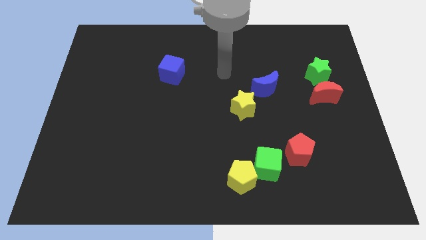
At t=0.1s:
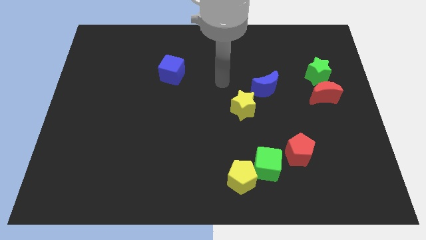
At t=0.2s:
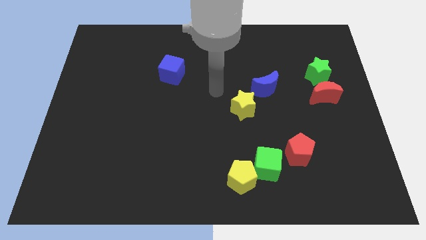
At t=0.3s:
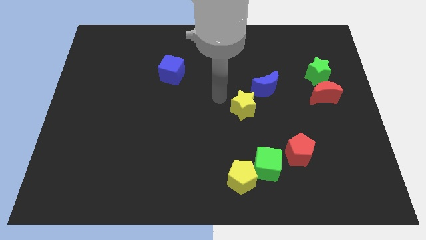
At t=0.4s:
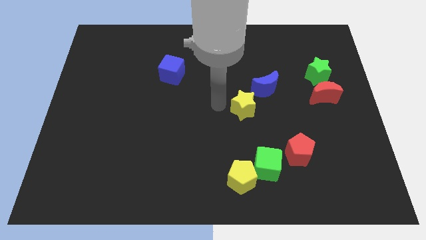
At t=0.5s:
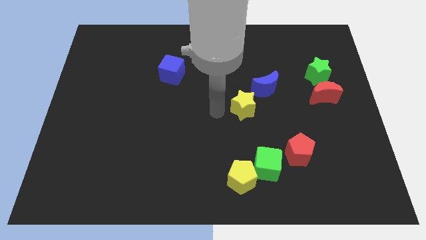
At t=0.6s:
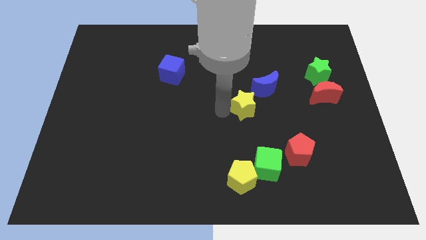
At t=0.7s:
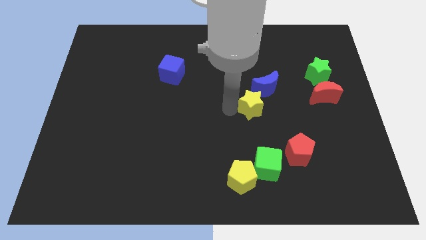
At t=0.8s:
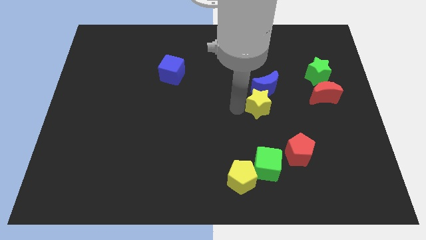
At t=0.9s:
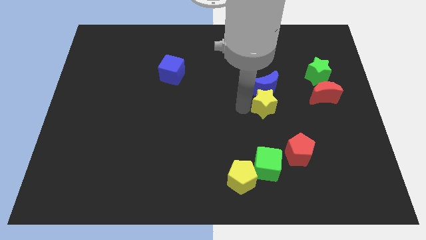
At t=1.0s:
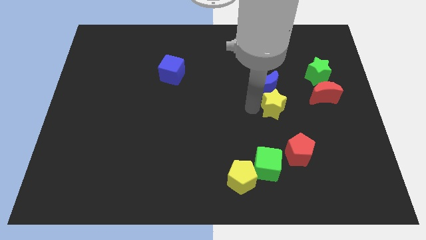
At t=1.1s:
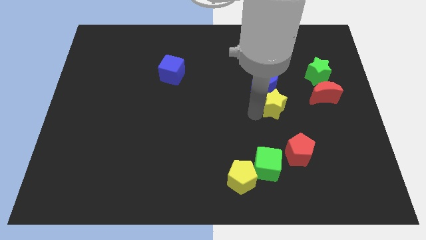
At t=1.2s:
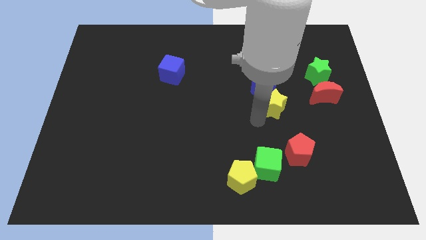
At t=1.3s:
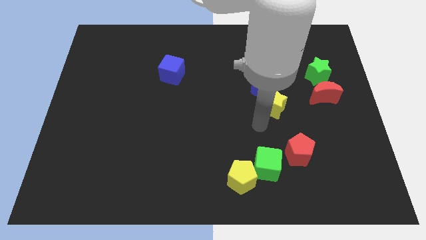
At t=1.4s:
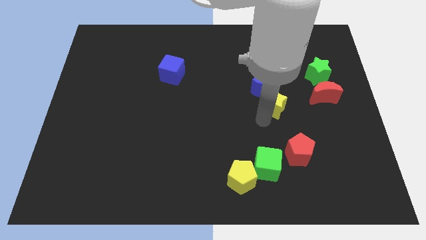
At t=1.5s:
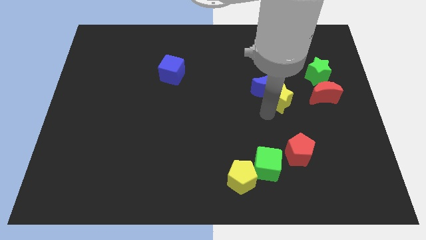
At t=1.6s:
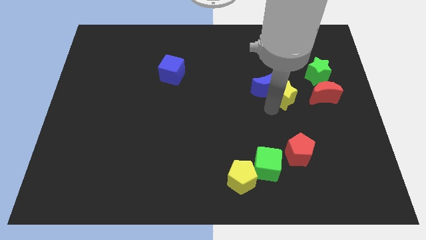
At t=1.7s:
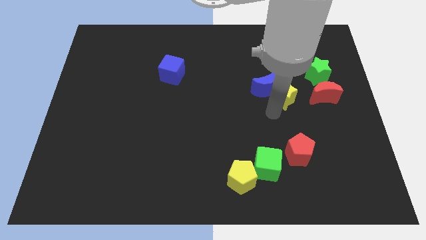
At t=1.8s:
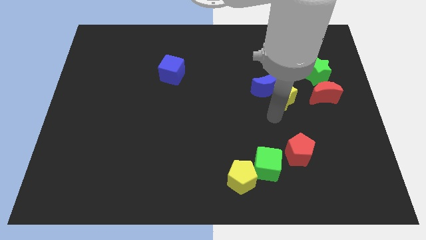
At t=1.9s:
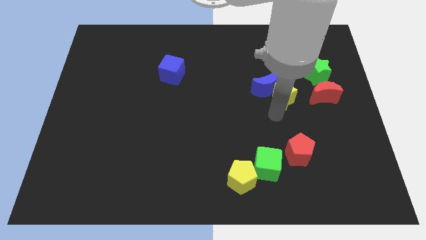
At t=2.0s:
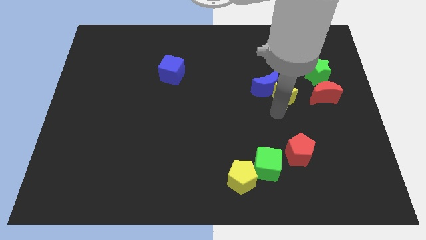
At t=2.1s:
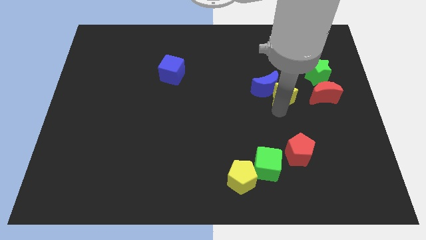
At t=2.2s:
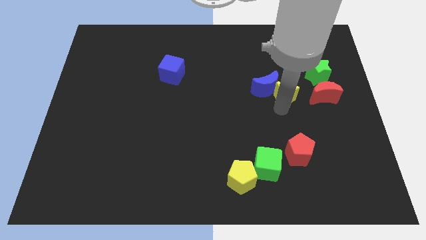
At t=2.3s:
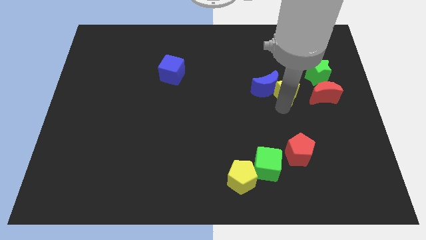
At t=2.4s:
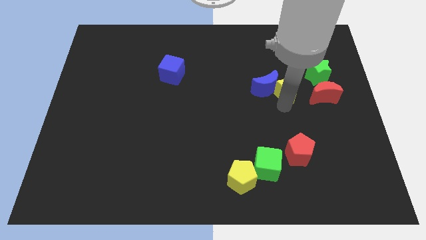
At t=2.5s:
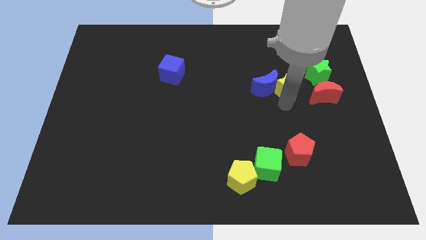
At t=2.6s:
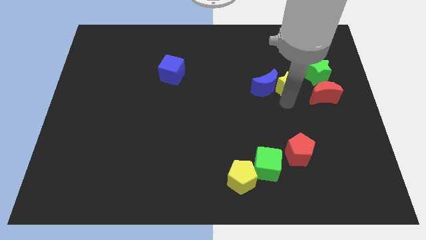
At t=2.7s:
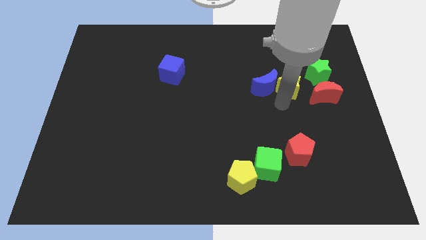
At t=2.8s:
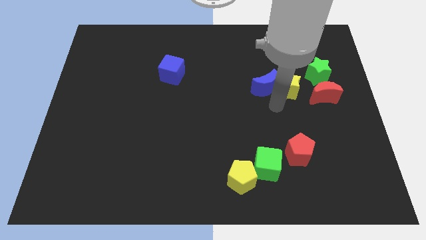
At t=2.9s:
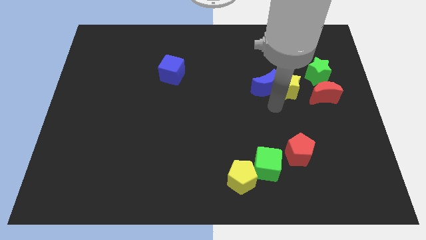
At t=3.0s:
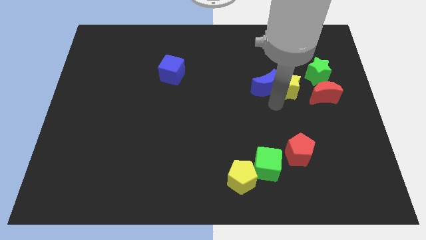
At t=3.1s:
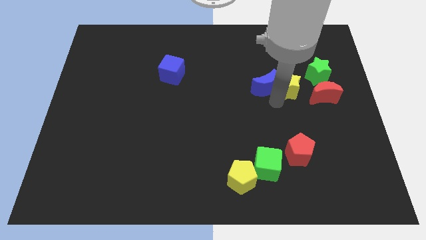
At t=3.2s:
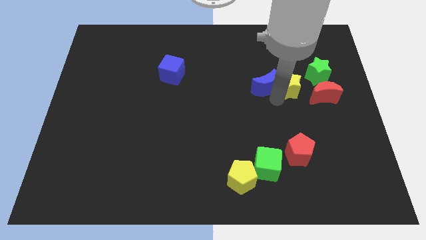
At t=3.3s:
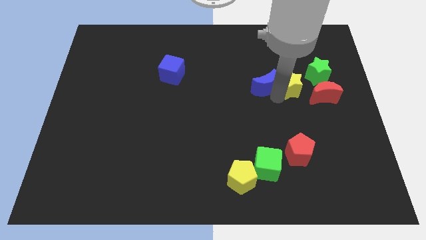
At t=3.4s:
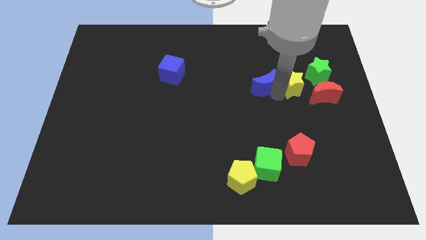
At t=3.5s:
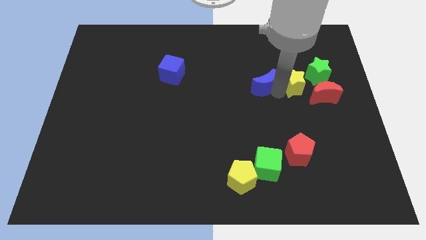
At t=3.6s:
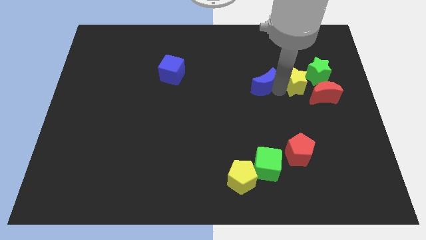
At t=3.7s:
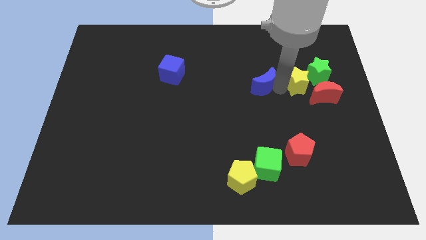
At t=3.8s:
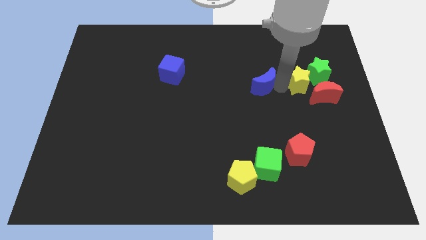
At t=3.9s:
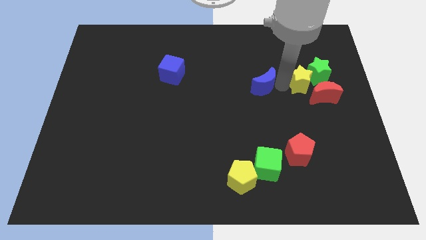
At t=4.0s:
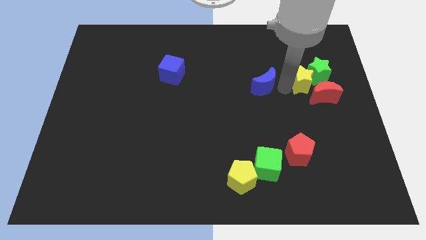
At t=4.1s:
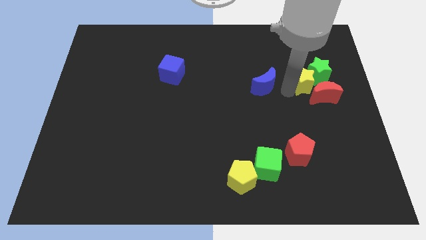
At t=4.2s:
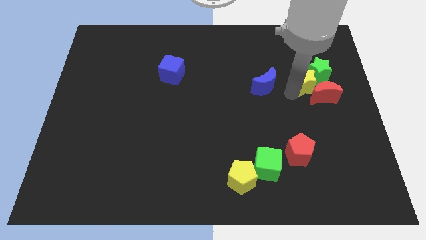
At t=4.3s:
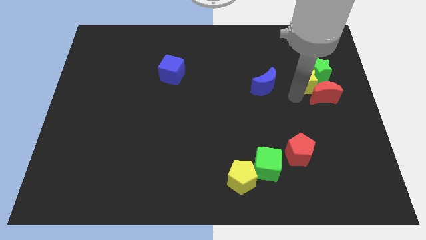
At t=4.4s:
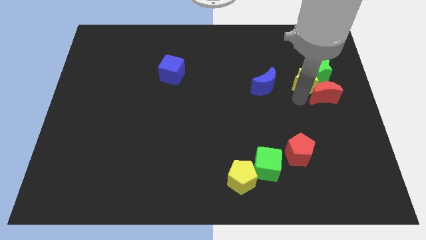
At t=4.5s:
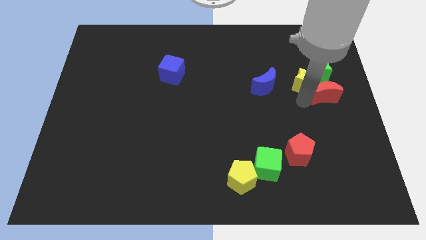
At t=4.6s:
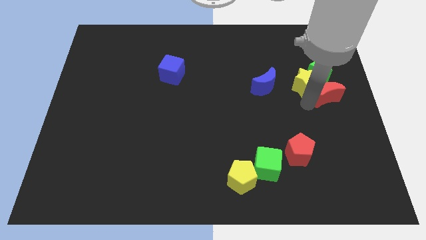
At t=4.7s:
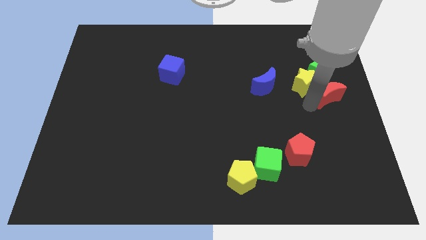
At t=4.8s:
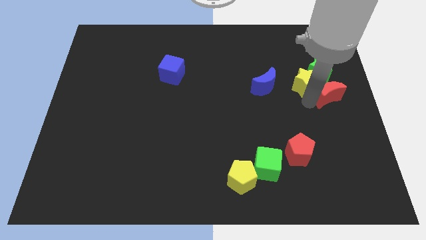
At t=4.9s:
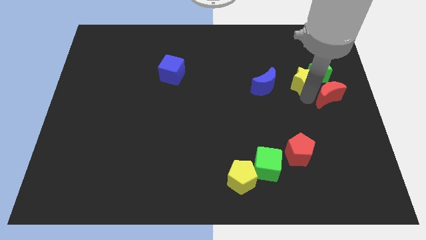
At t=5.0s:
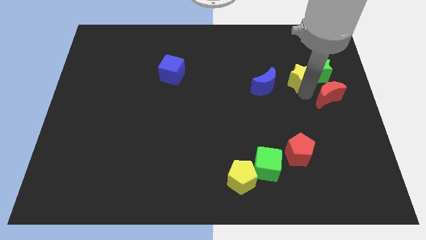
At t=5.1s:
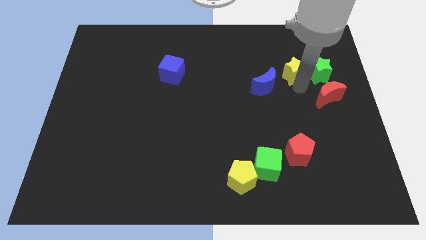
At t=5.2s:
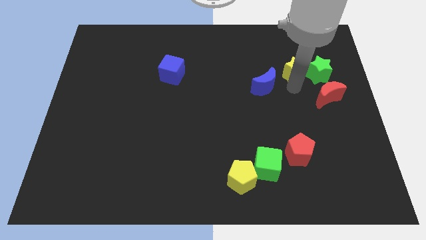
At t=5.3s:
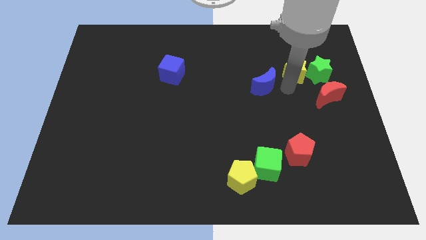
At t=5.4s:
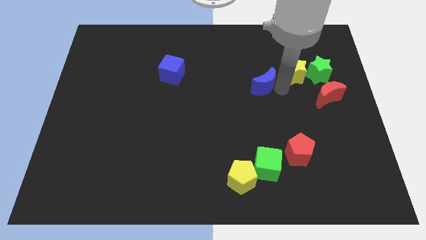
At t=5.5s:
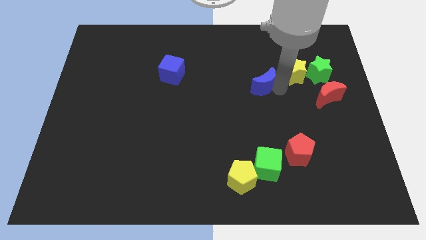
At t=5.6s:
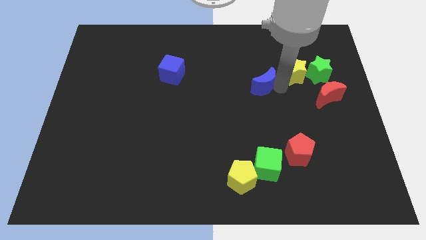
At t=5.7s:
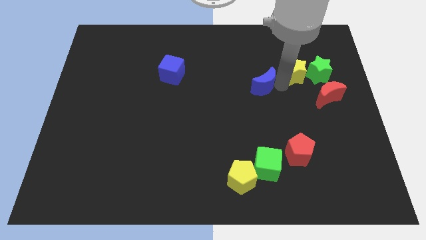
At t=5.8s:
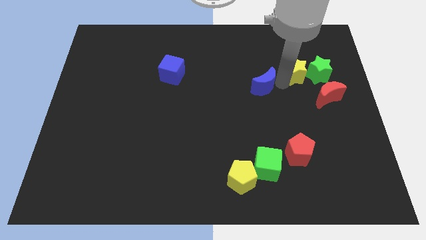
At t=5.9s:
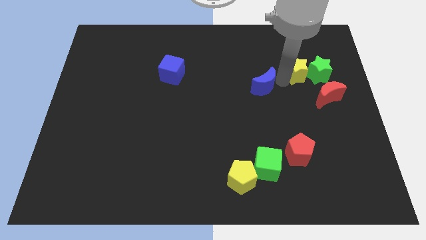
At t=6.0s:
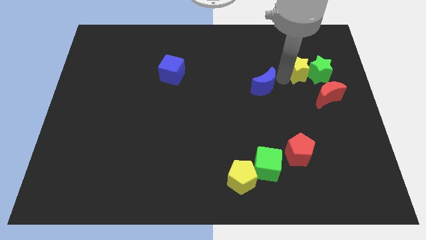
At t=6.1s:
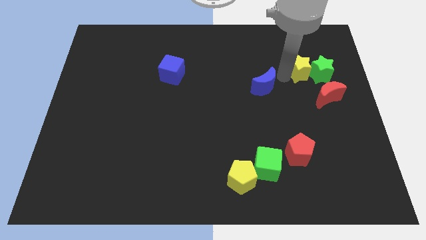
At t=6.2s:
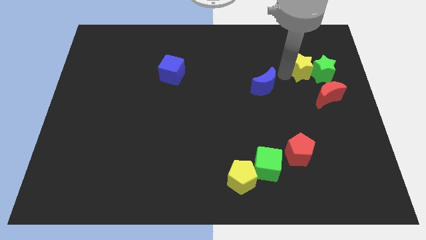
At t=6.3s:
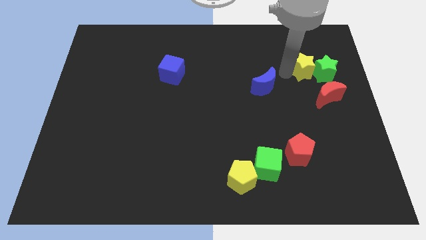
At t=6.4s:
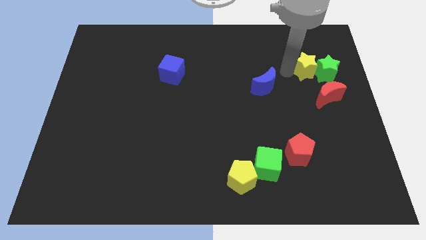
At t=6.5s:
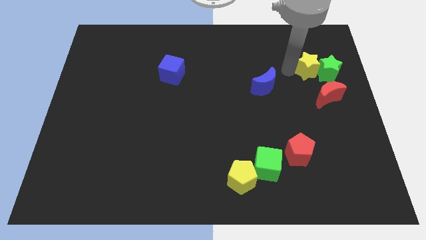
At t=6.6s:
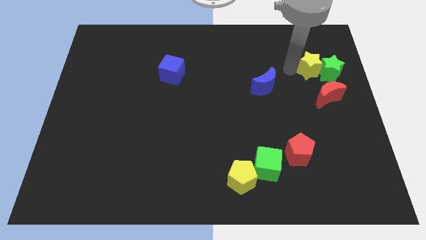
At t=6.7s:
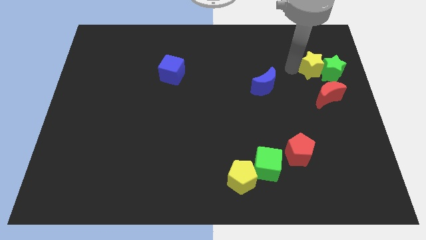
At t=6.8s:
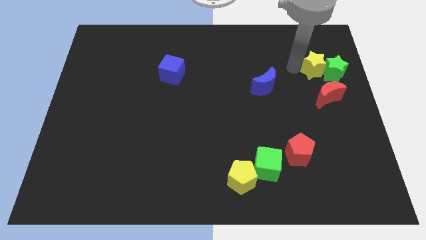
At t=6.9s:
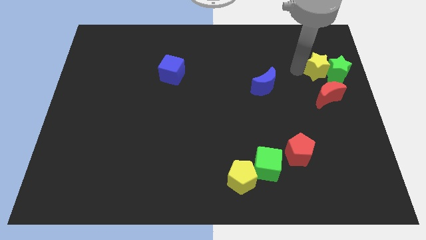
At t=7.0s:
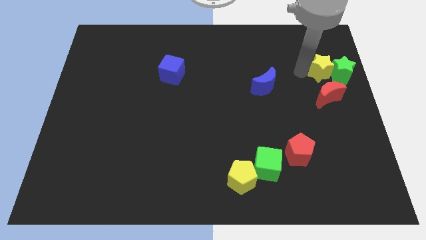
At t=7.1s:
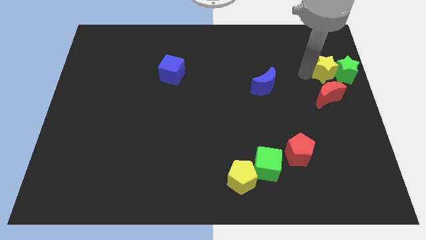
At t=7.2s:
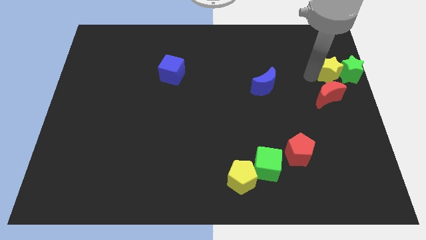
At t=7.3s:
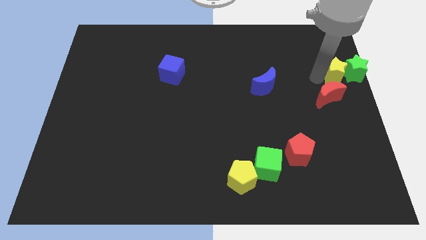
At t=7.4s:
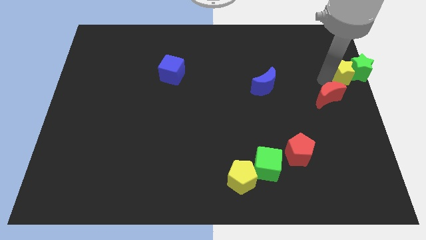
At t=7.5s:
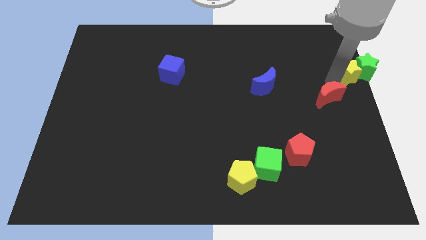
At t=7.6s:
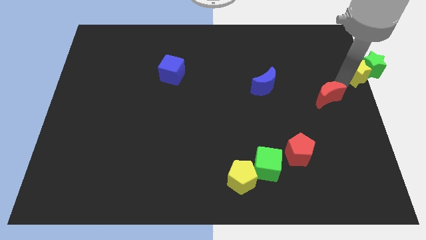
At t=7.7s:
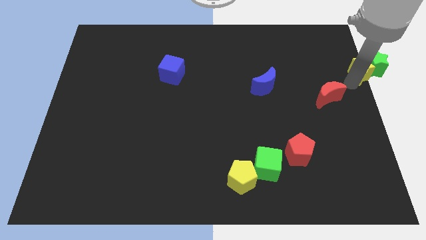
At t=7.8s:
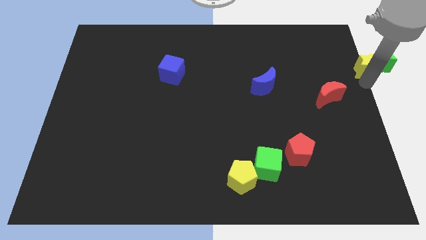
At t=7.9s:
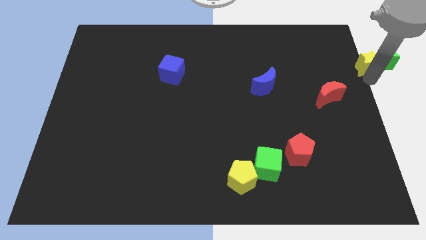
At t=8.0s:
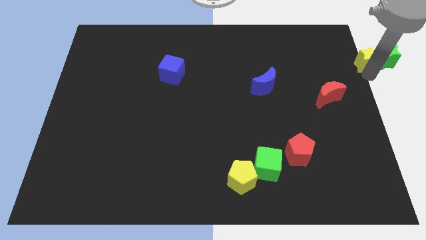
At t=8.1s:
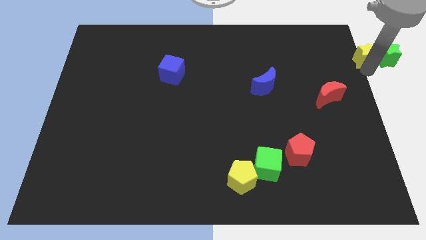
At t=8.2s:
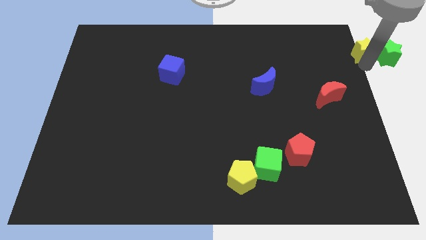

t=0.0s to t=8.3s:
put the yellow star to the top right
